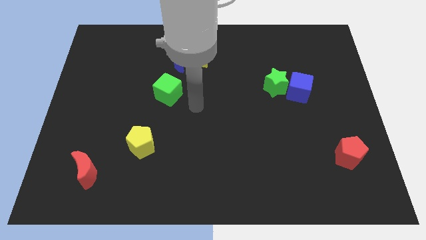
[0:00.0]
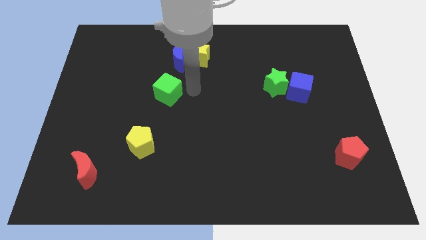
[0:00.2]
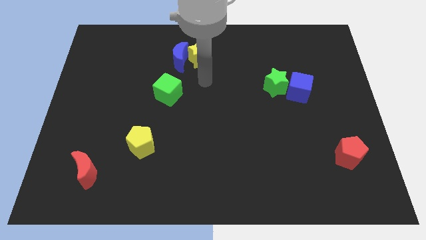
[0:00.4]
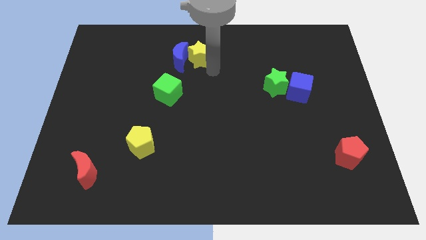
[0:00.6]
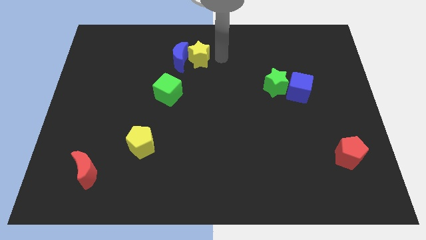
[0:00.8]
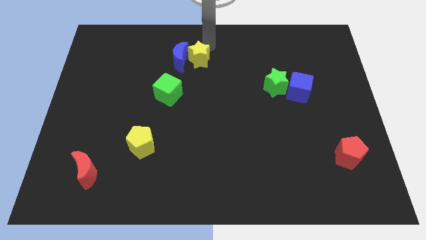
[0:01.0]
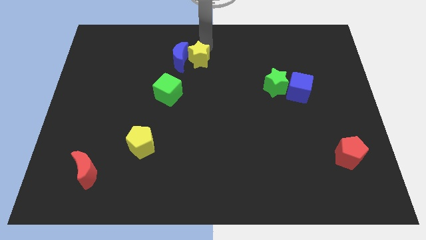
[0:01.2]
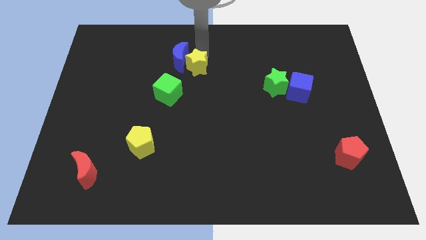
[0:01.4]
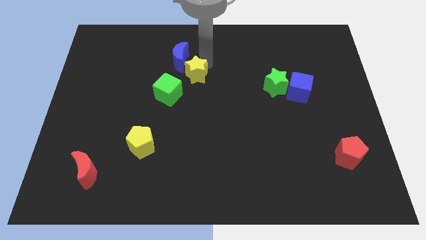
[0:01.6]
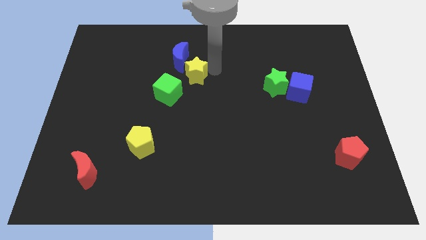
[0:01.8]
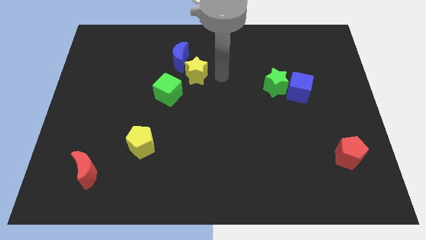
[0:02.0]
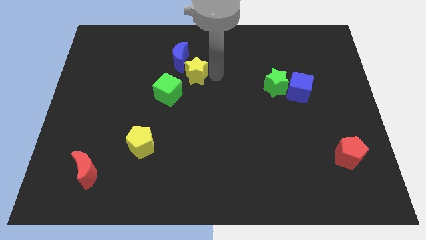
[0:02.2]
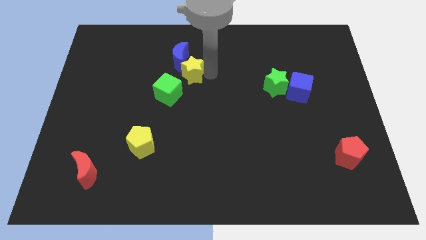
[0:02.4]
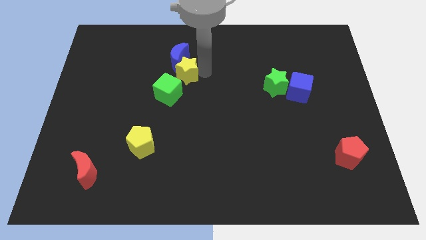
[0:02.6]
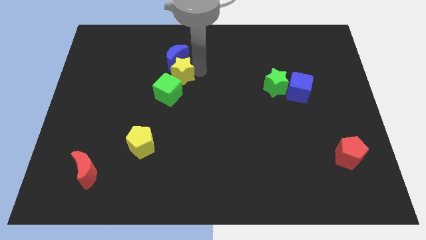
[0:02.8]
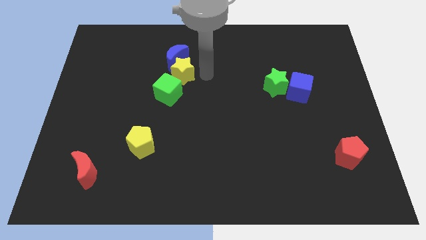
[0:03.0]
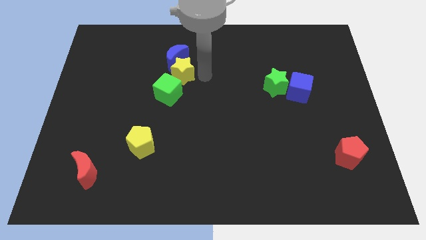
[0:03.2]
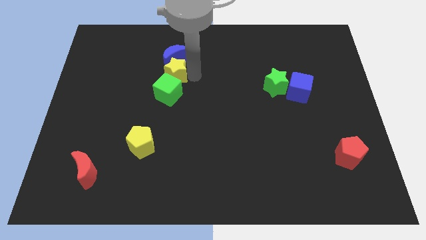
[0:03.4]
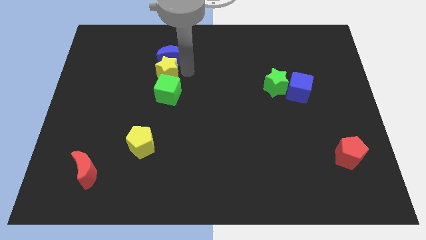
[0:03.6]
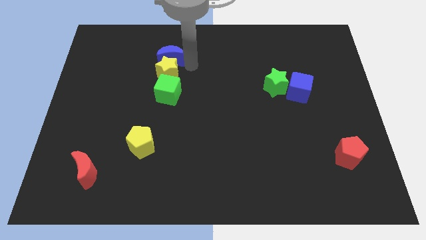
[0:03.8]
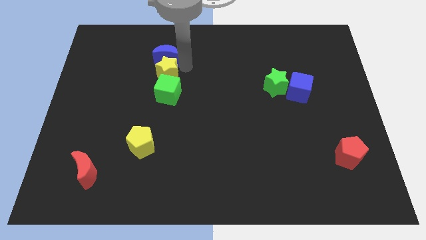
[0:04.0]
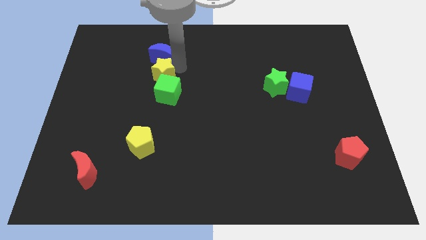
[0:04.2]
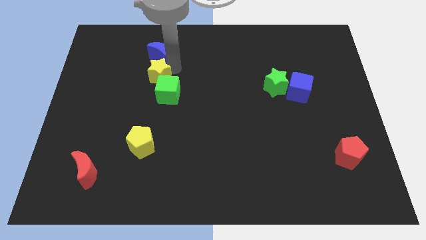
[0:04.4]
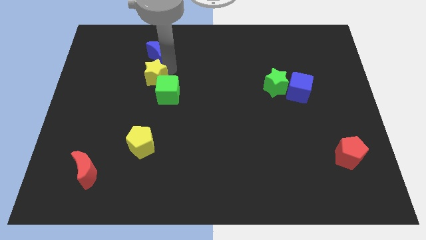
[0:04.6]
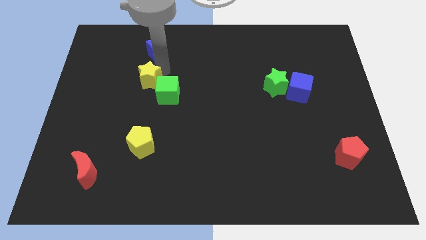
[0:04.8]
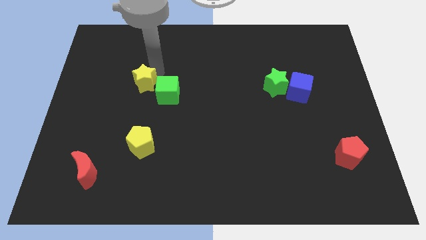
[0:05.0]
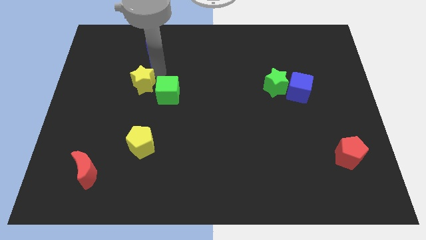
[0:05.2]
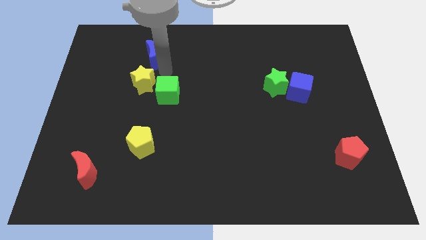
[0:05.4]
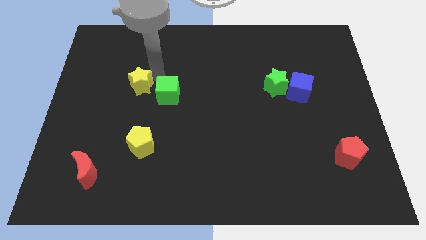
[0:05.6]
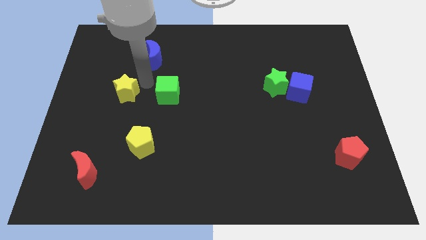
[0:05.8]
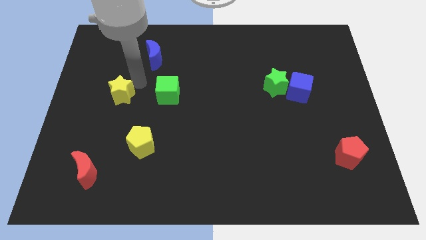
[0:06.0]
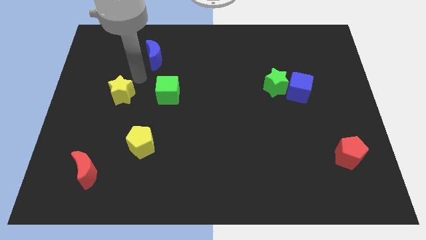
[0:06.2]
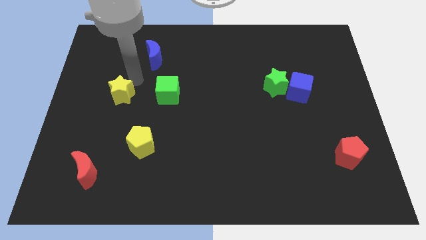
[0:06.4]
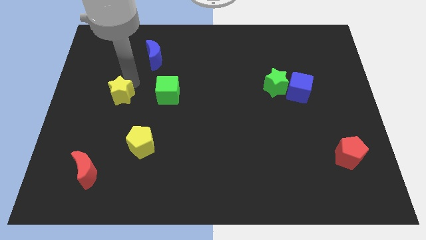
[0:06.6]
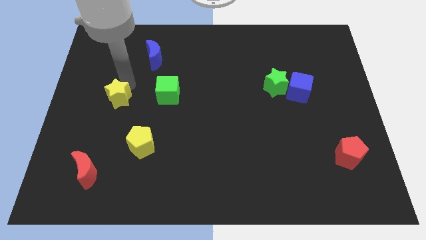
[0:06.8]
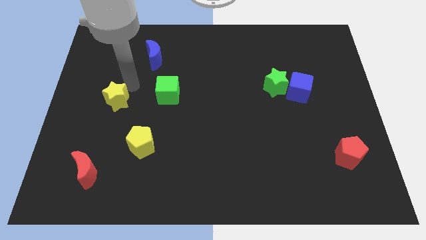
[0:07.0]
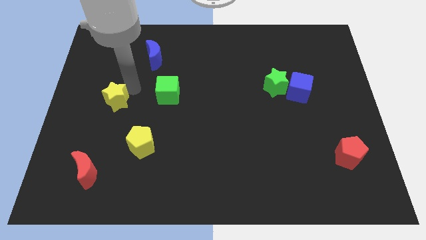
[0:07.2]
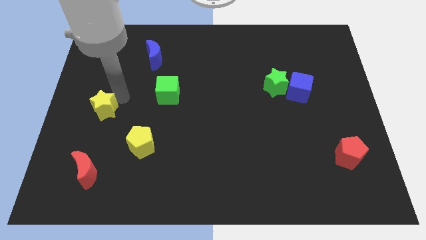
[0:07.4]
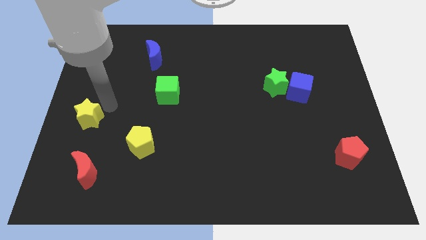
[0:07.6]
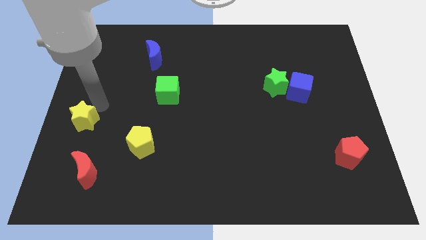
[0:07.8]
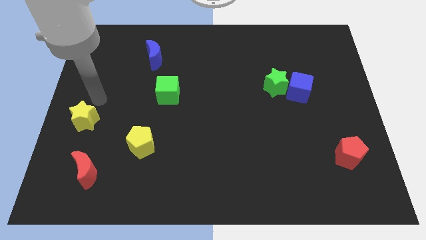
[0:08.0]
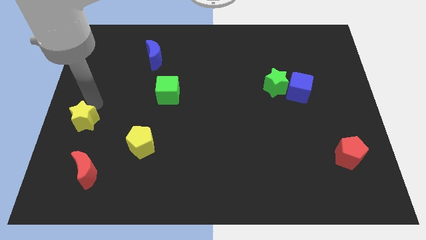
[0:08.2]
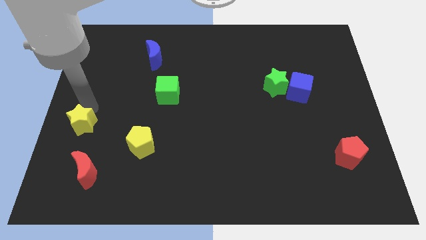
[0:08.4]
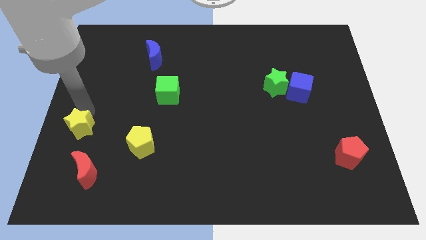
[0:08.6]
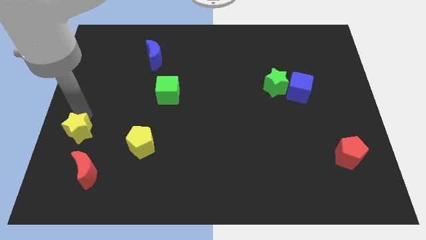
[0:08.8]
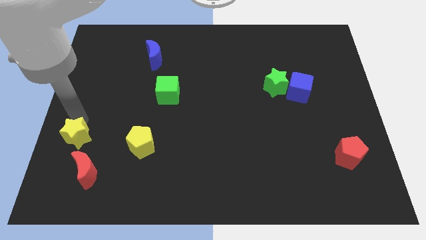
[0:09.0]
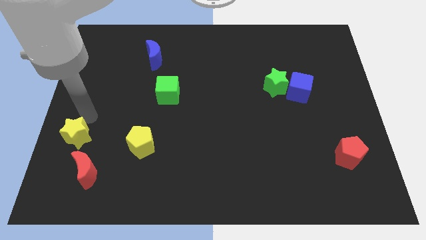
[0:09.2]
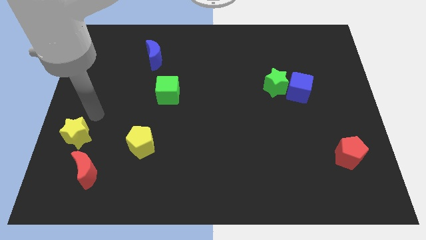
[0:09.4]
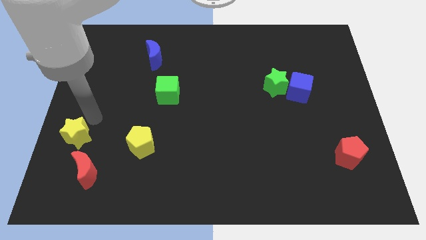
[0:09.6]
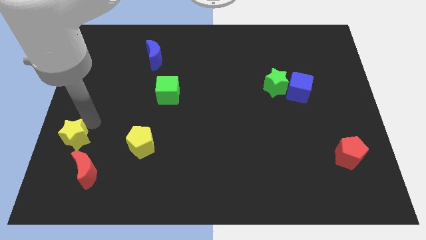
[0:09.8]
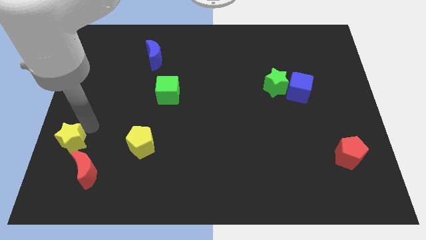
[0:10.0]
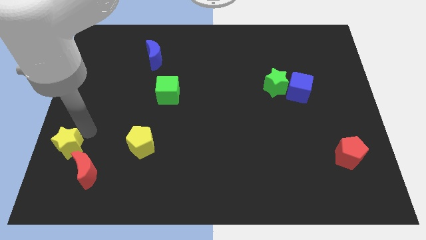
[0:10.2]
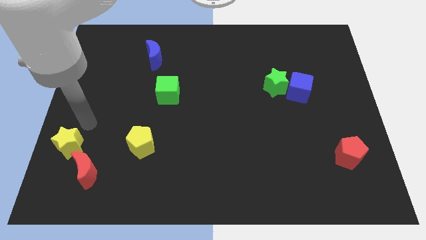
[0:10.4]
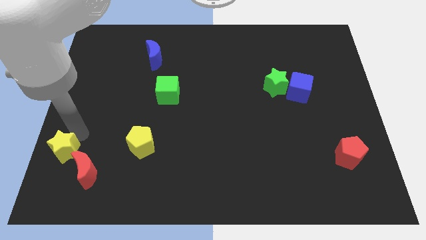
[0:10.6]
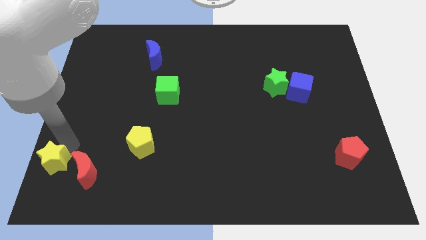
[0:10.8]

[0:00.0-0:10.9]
put the yellow star to the bottom left

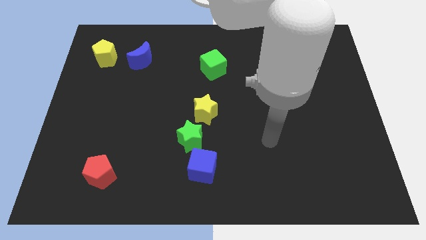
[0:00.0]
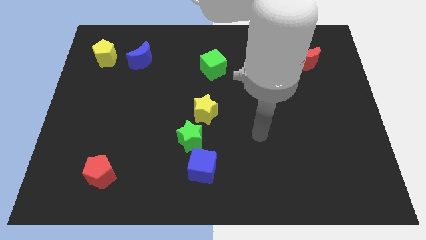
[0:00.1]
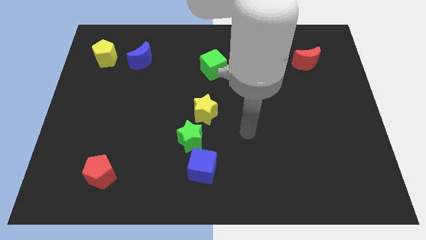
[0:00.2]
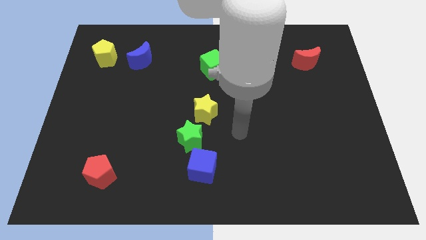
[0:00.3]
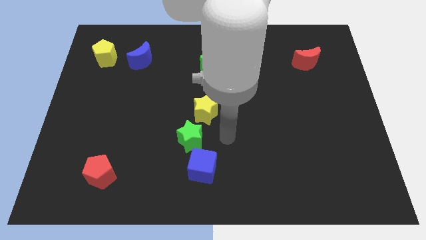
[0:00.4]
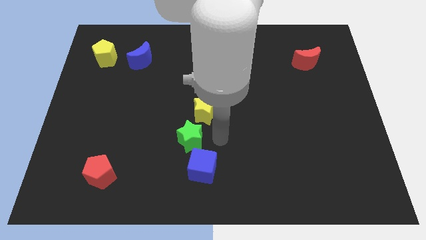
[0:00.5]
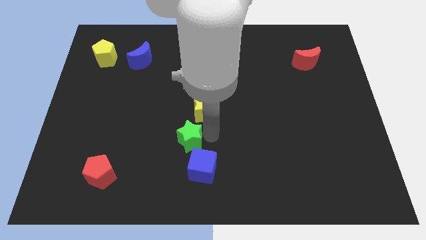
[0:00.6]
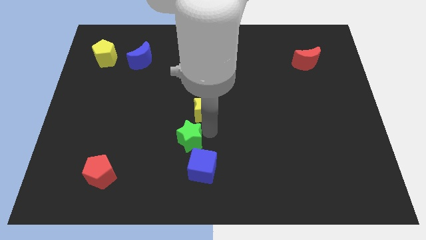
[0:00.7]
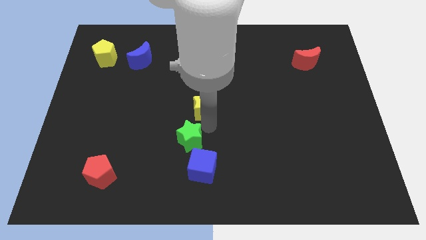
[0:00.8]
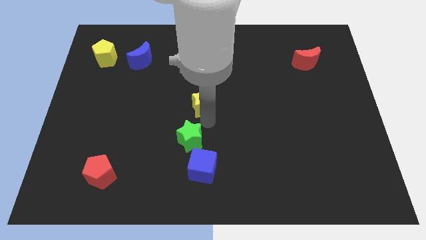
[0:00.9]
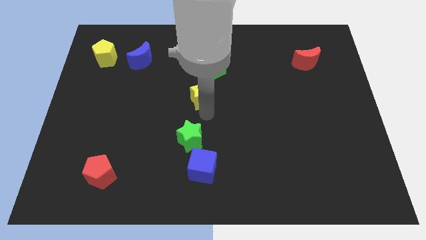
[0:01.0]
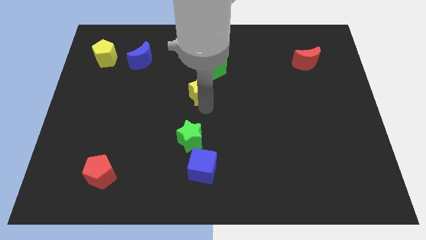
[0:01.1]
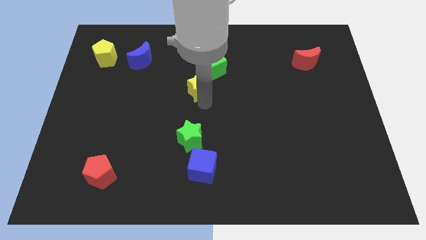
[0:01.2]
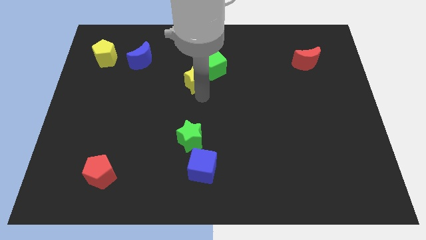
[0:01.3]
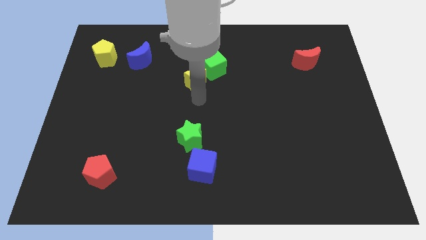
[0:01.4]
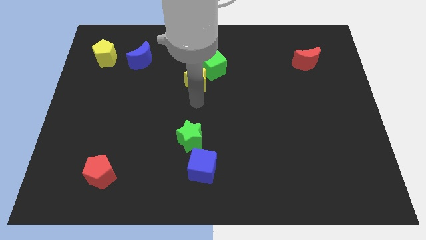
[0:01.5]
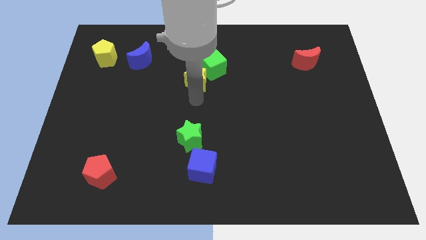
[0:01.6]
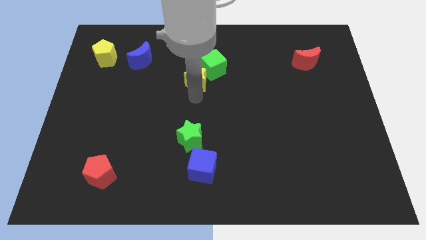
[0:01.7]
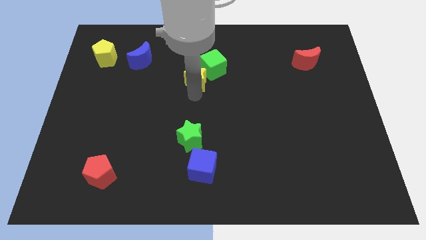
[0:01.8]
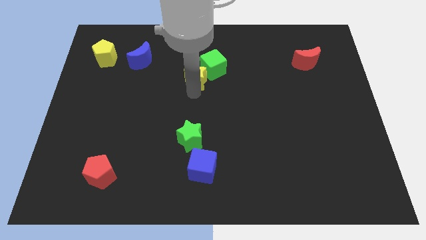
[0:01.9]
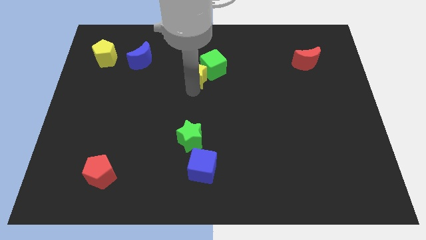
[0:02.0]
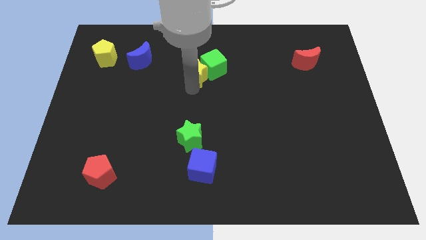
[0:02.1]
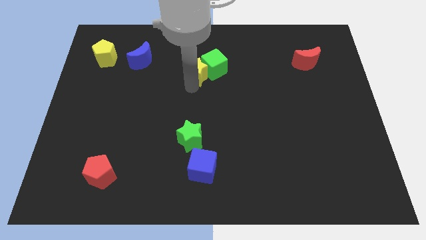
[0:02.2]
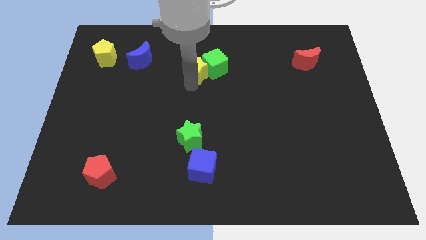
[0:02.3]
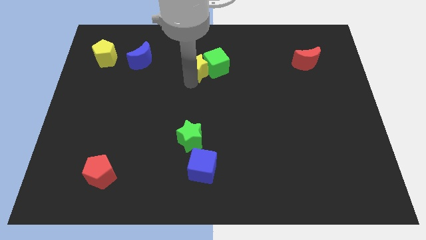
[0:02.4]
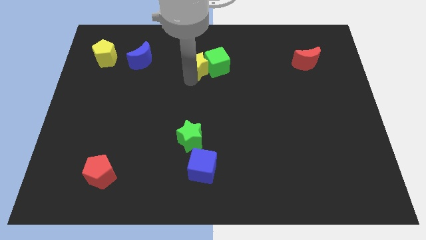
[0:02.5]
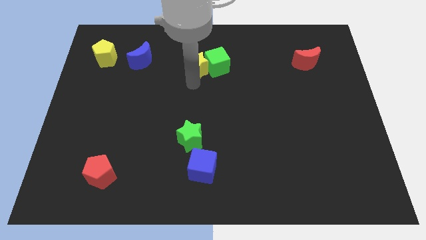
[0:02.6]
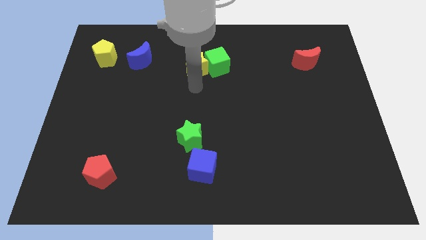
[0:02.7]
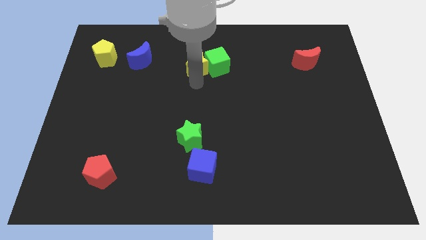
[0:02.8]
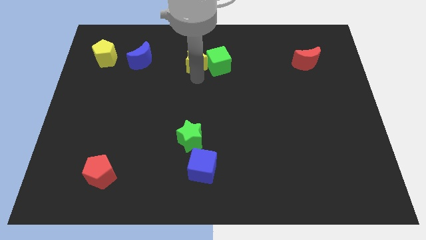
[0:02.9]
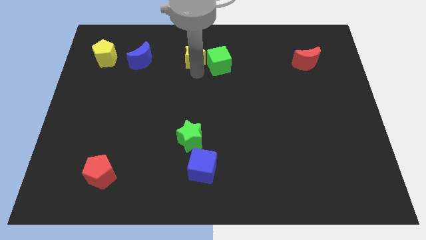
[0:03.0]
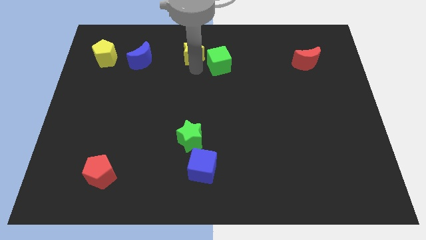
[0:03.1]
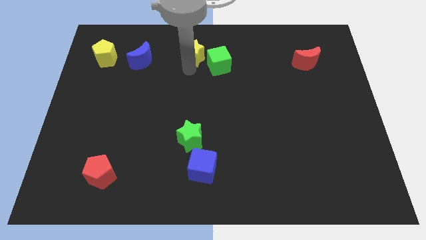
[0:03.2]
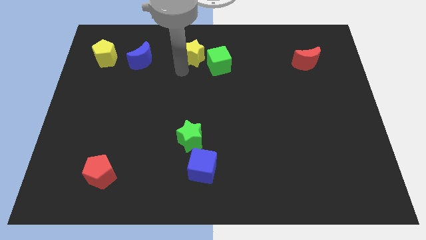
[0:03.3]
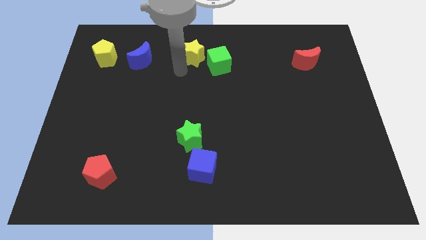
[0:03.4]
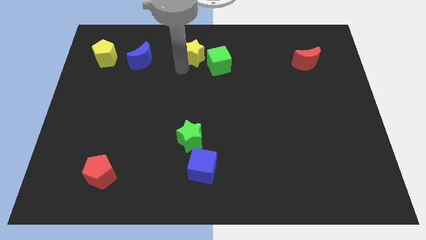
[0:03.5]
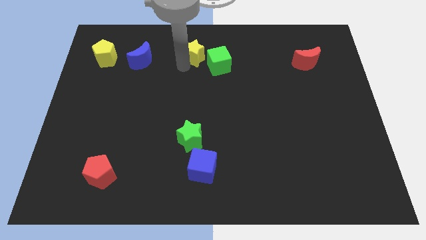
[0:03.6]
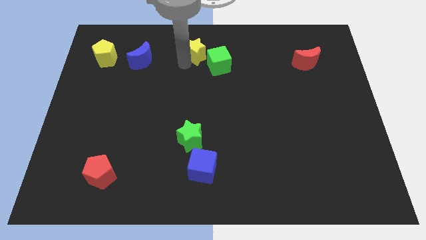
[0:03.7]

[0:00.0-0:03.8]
slide the yellow star to the towards your base
